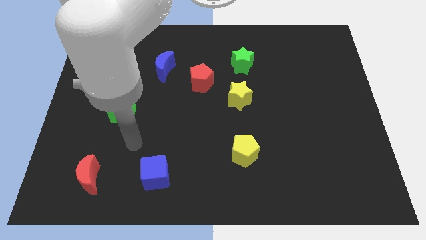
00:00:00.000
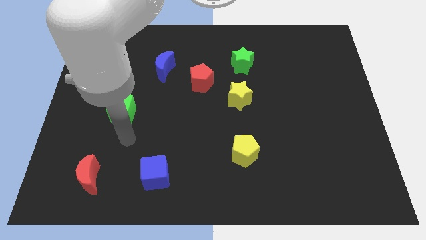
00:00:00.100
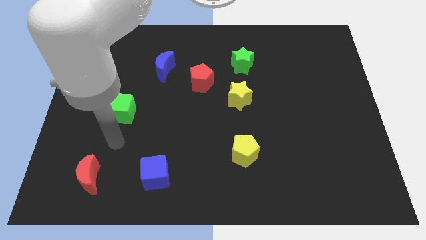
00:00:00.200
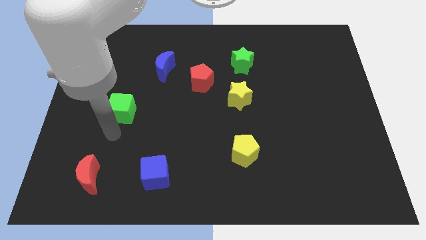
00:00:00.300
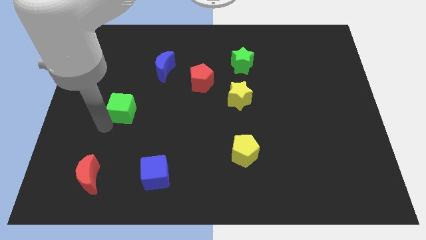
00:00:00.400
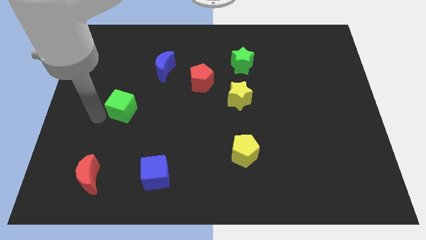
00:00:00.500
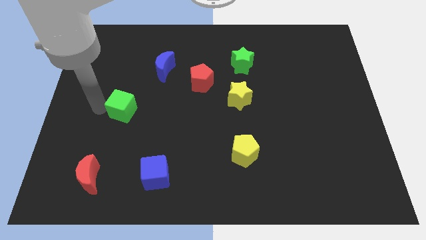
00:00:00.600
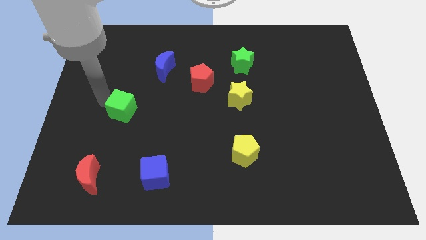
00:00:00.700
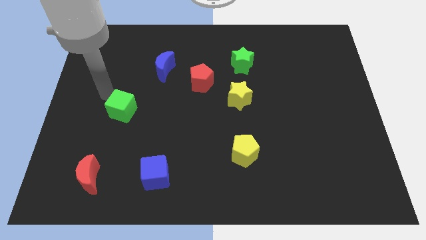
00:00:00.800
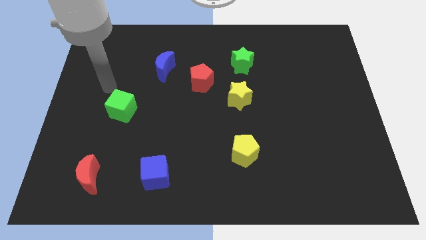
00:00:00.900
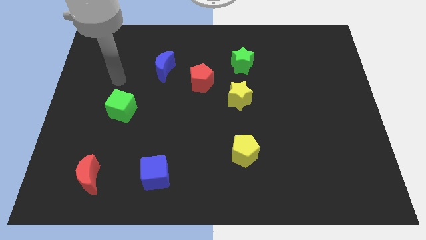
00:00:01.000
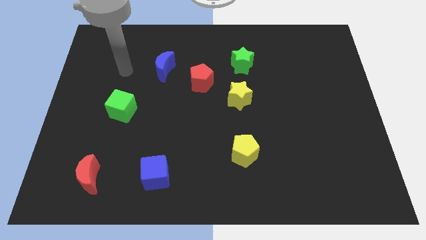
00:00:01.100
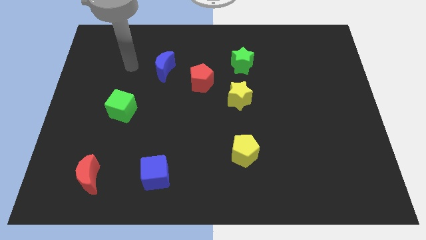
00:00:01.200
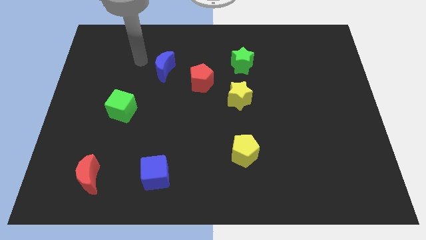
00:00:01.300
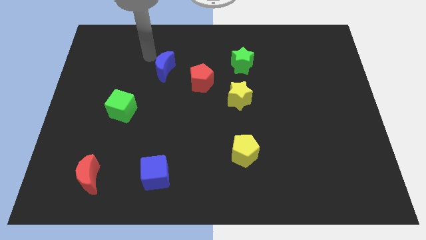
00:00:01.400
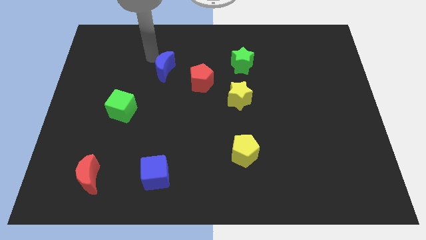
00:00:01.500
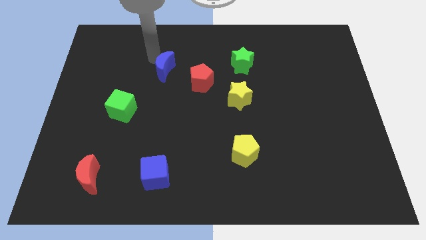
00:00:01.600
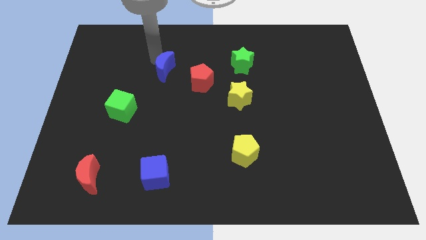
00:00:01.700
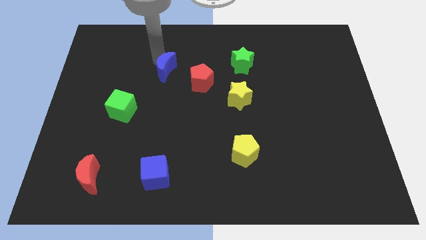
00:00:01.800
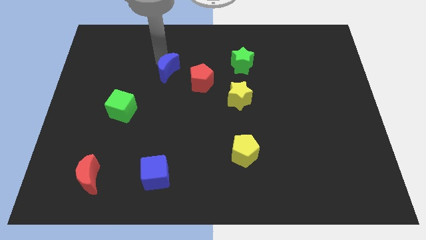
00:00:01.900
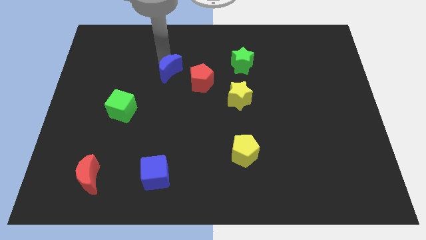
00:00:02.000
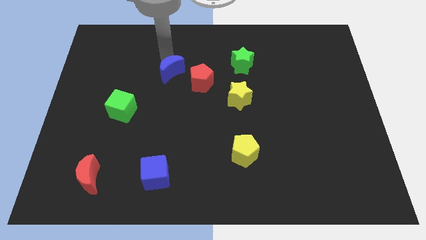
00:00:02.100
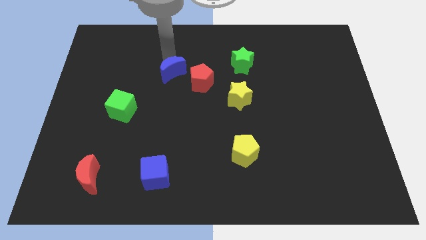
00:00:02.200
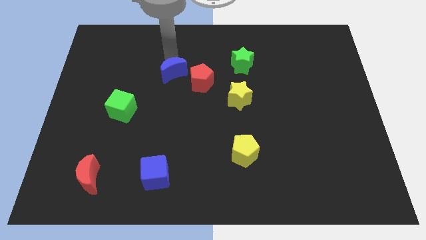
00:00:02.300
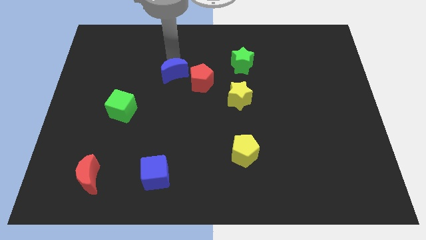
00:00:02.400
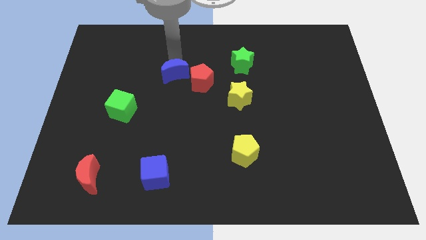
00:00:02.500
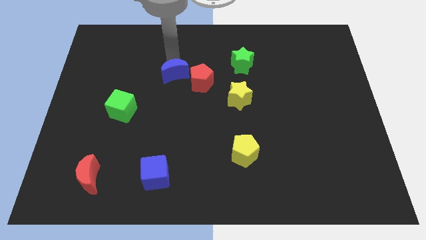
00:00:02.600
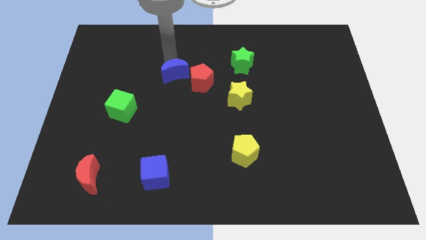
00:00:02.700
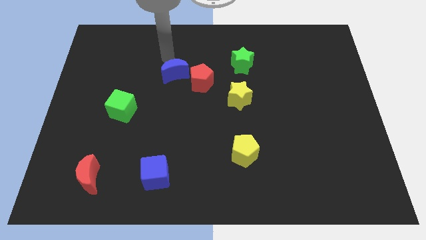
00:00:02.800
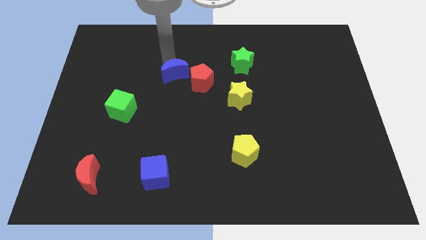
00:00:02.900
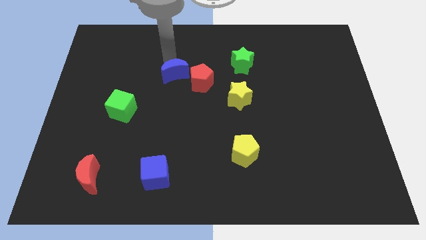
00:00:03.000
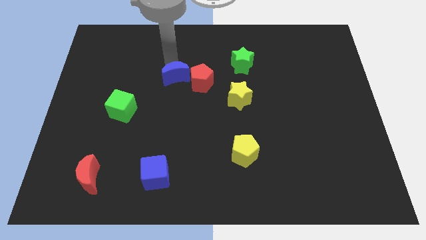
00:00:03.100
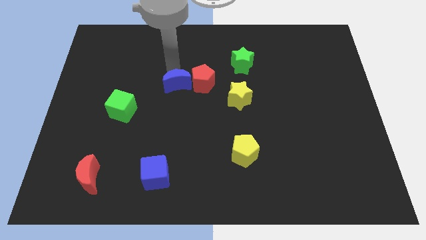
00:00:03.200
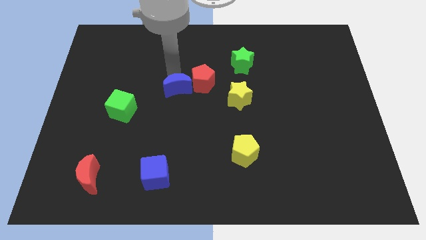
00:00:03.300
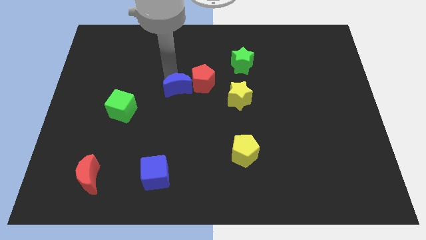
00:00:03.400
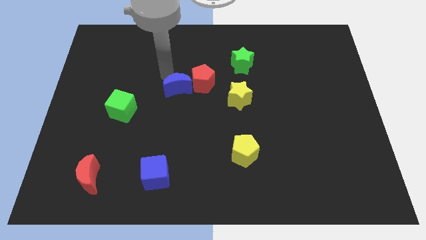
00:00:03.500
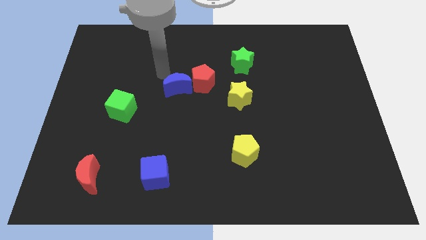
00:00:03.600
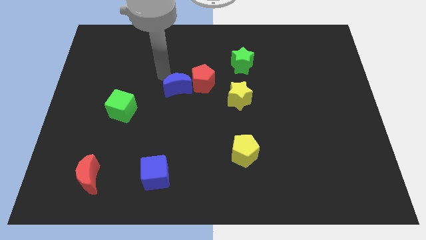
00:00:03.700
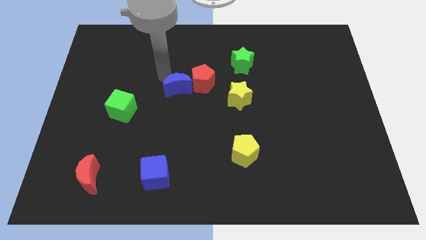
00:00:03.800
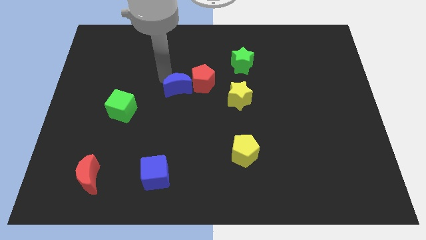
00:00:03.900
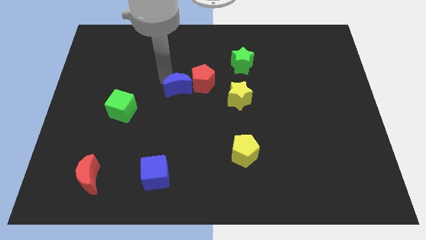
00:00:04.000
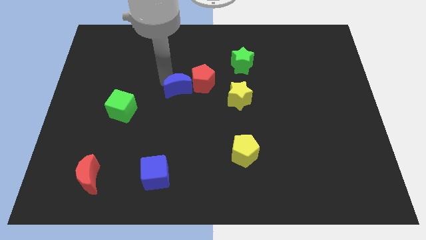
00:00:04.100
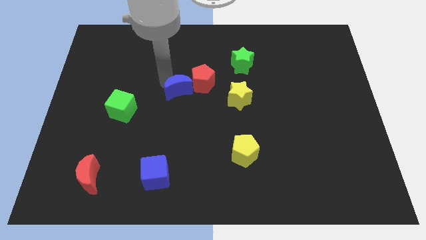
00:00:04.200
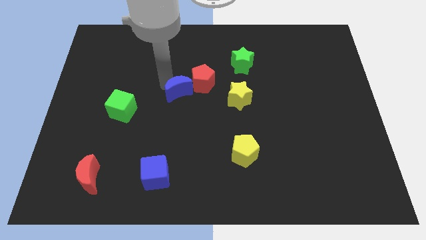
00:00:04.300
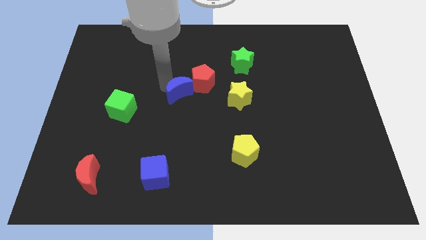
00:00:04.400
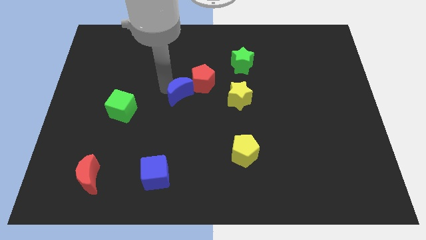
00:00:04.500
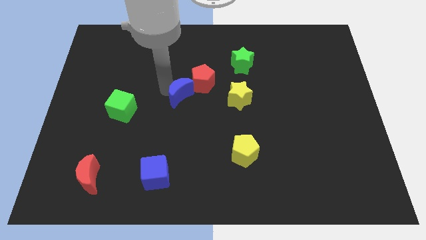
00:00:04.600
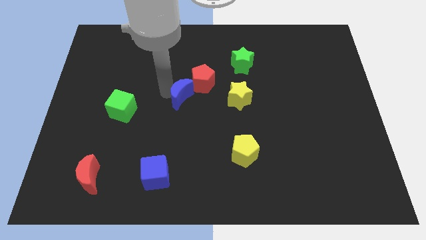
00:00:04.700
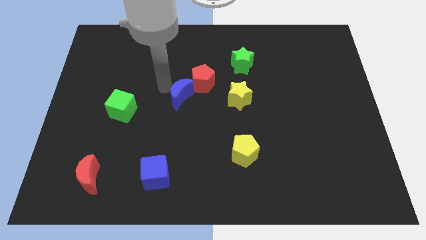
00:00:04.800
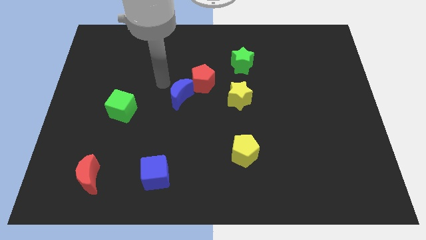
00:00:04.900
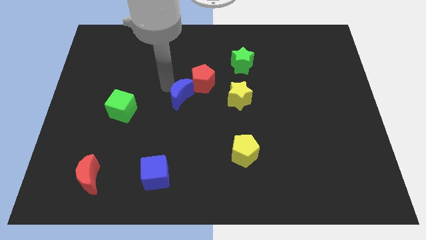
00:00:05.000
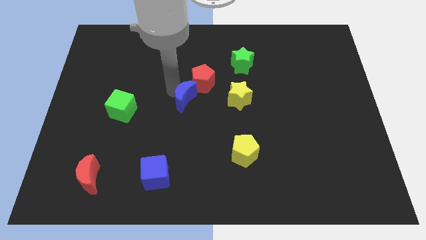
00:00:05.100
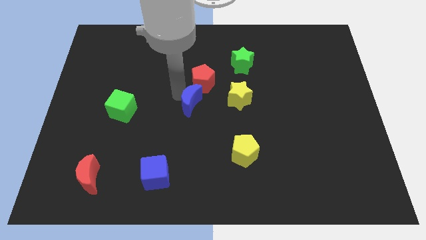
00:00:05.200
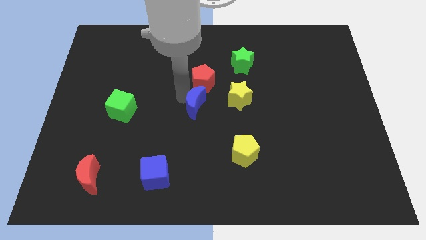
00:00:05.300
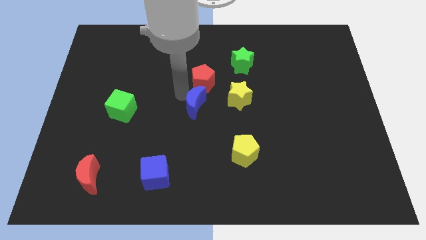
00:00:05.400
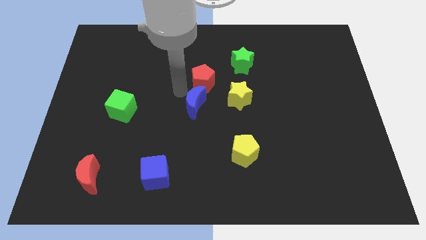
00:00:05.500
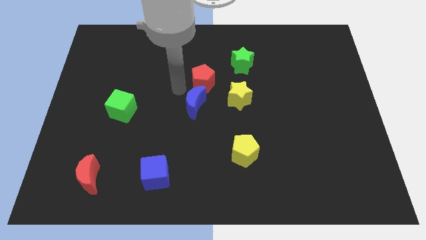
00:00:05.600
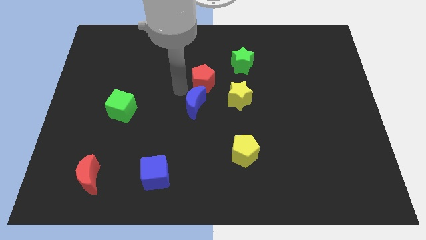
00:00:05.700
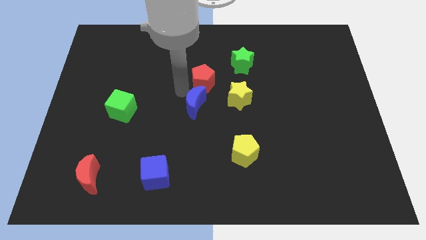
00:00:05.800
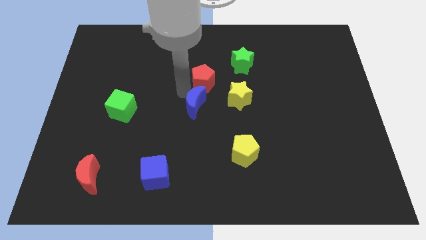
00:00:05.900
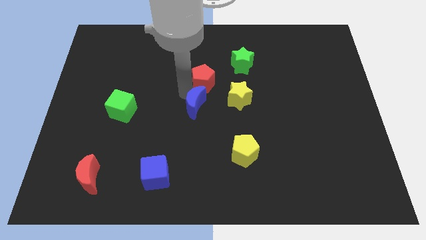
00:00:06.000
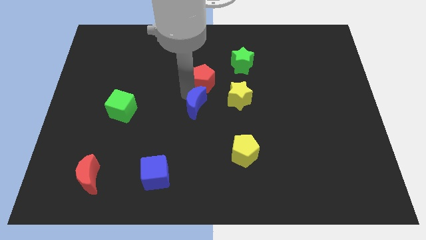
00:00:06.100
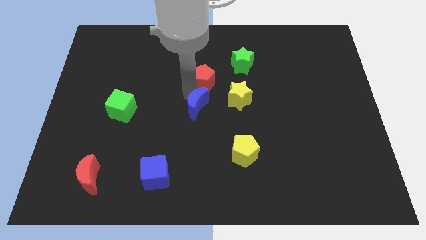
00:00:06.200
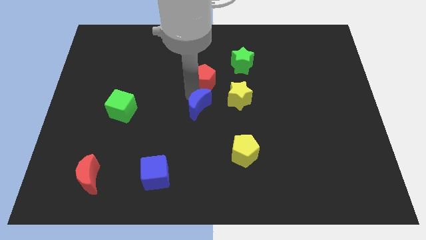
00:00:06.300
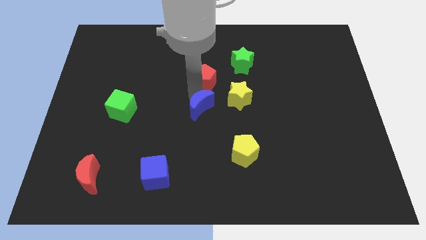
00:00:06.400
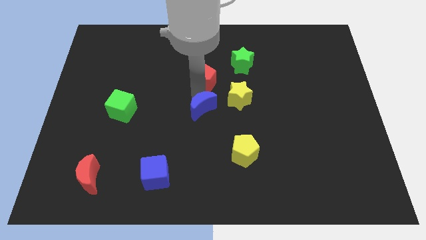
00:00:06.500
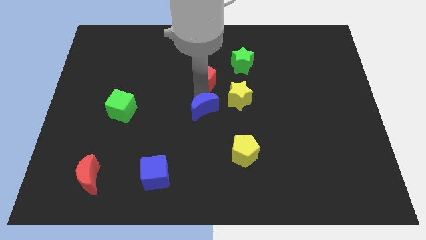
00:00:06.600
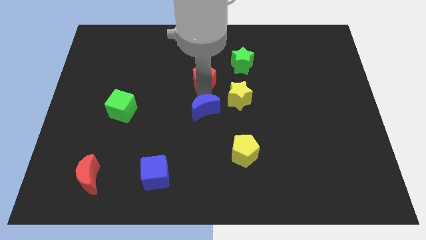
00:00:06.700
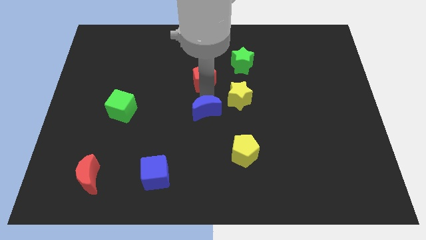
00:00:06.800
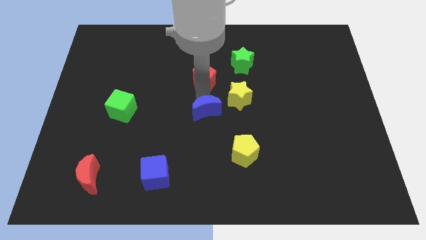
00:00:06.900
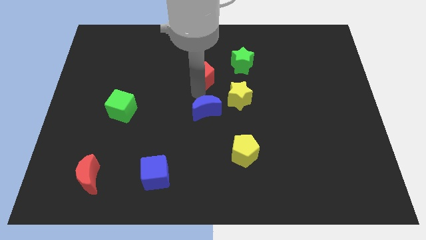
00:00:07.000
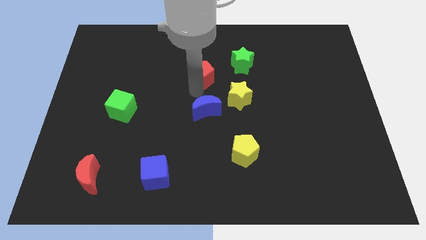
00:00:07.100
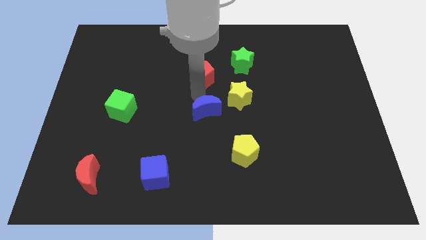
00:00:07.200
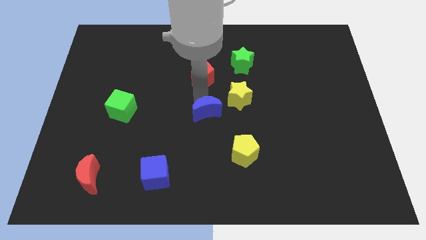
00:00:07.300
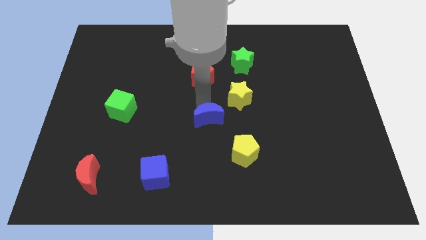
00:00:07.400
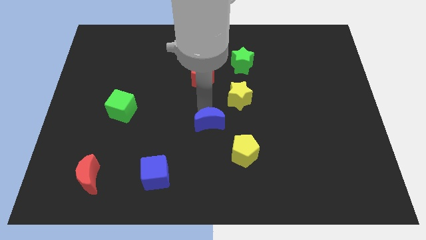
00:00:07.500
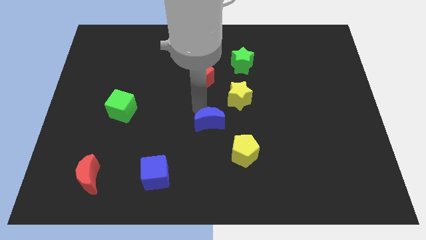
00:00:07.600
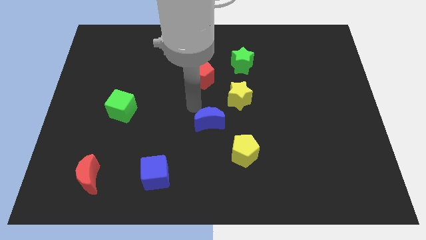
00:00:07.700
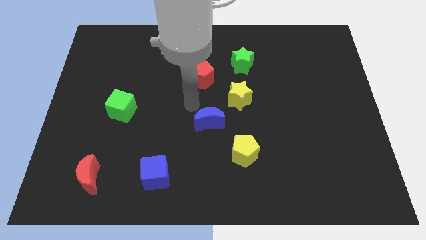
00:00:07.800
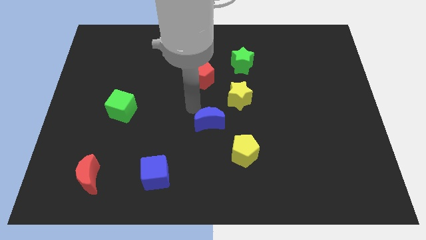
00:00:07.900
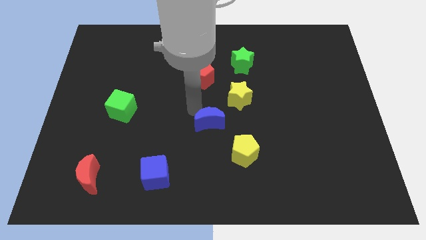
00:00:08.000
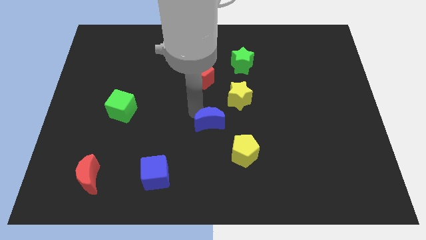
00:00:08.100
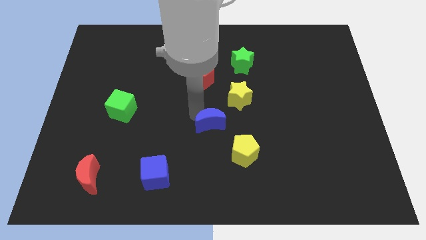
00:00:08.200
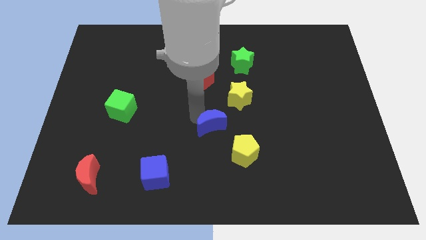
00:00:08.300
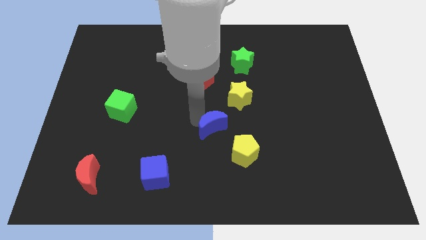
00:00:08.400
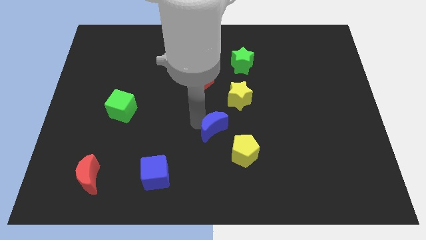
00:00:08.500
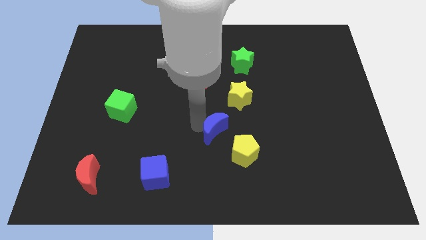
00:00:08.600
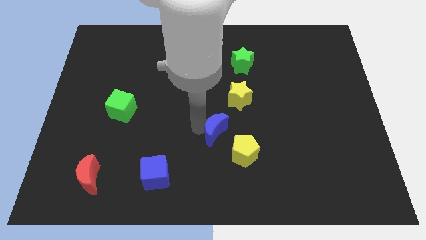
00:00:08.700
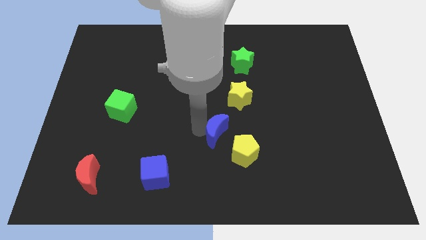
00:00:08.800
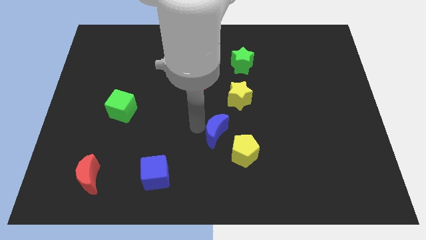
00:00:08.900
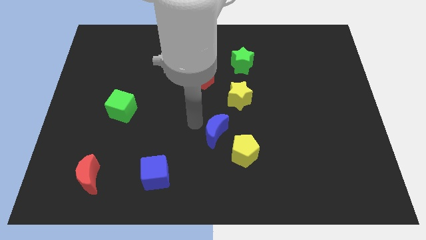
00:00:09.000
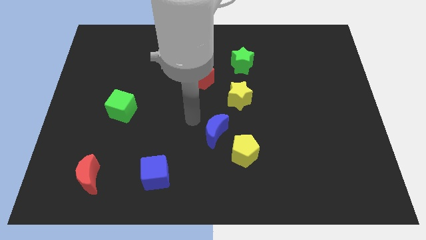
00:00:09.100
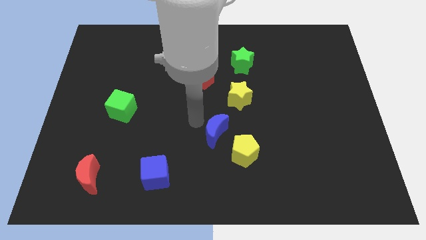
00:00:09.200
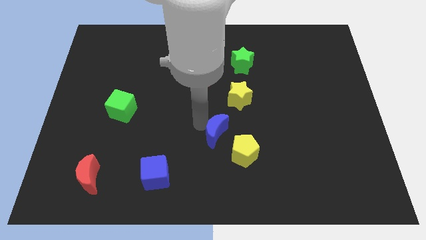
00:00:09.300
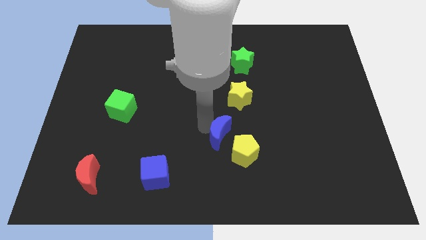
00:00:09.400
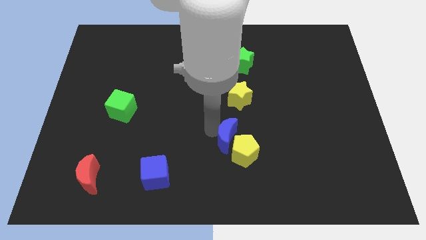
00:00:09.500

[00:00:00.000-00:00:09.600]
push the blue moon close to the yellow pentagon
